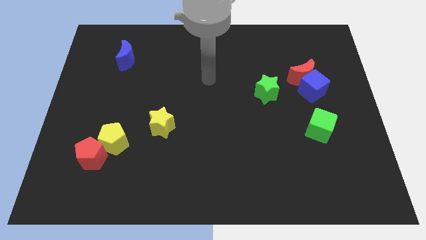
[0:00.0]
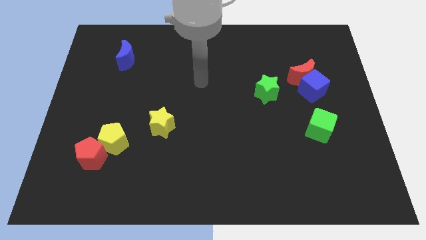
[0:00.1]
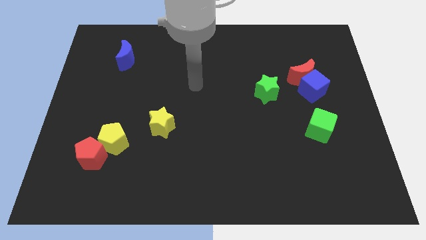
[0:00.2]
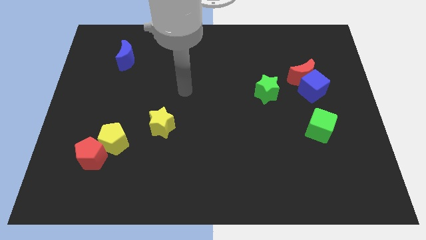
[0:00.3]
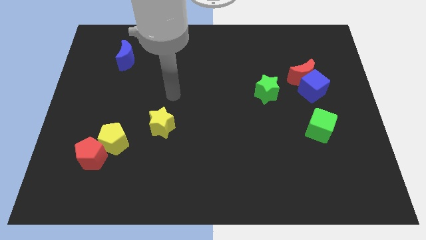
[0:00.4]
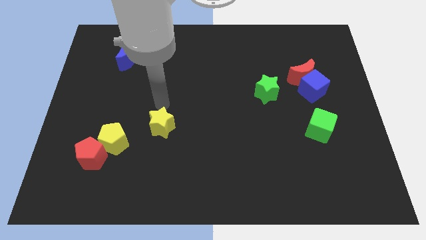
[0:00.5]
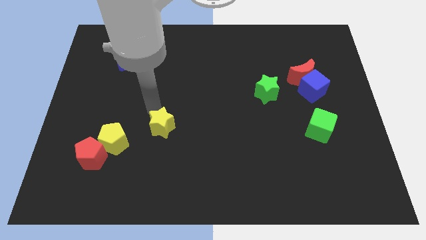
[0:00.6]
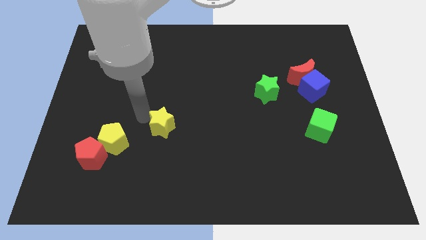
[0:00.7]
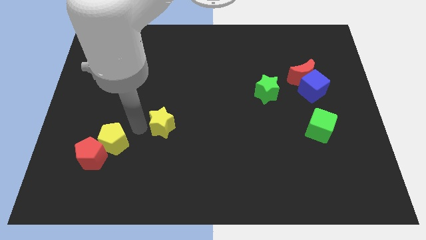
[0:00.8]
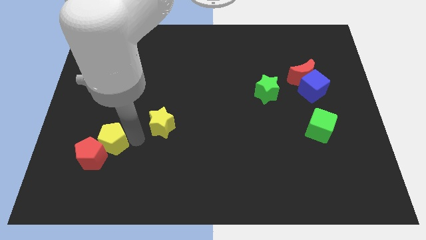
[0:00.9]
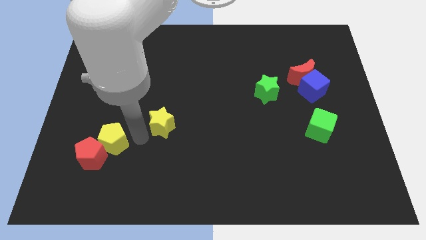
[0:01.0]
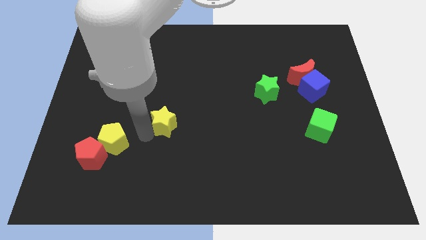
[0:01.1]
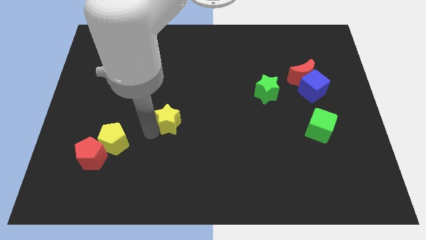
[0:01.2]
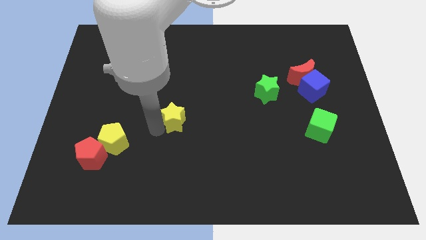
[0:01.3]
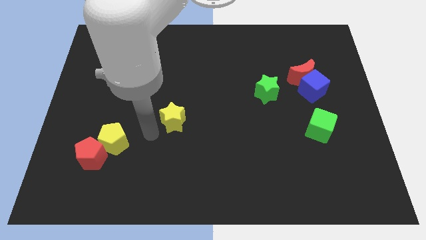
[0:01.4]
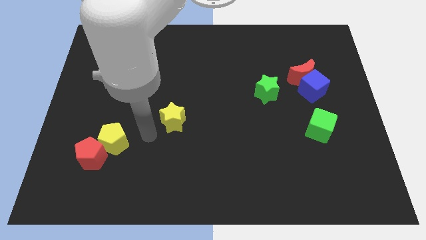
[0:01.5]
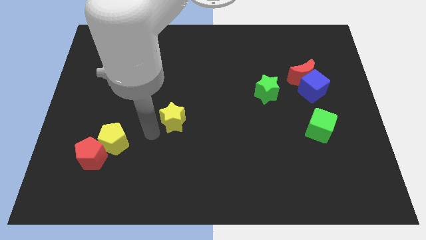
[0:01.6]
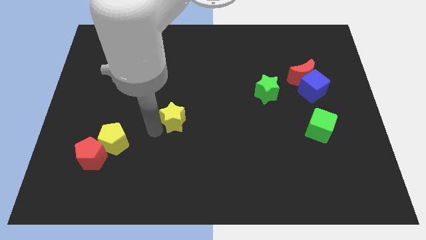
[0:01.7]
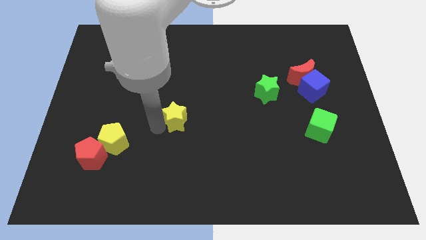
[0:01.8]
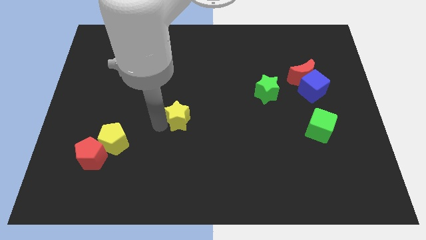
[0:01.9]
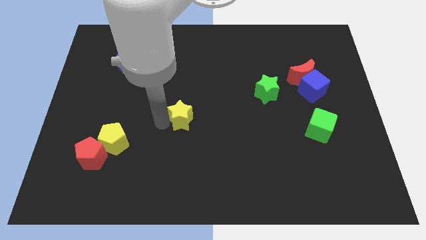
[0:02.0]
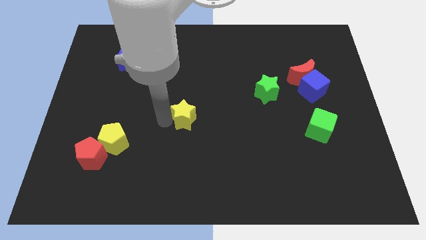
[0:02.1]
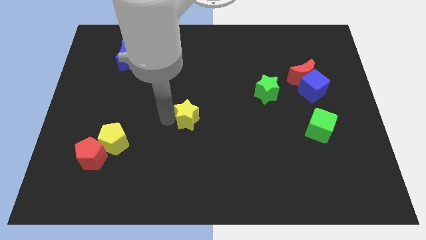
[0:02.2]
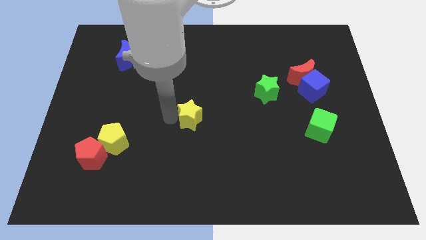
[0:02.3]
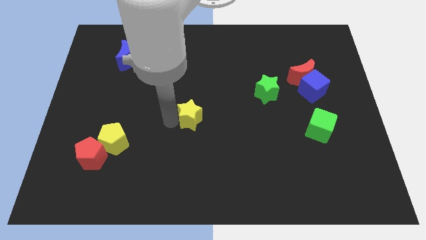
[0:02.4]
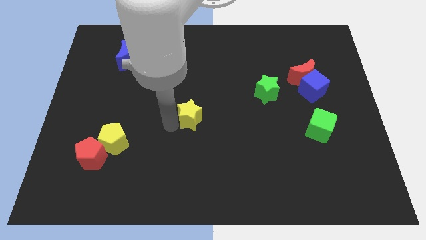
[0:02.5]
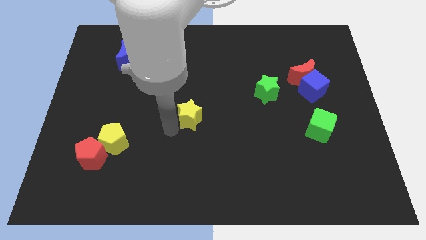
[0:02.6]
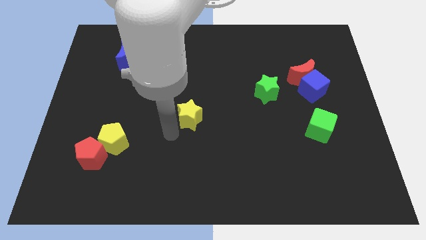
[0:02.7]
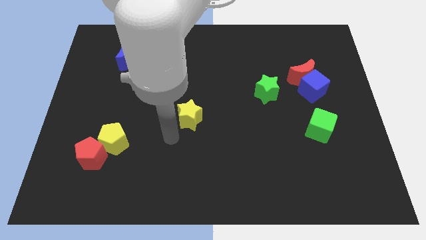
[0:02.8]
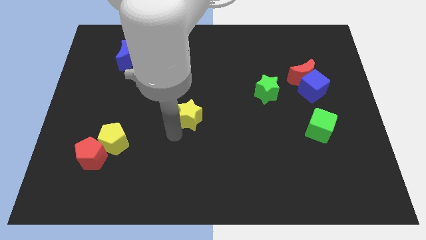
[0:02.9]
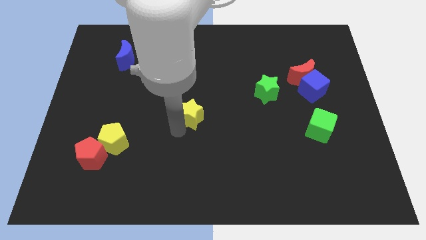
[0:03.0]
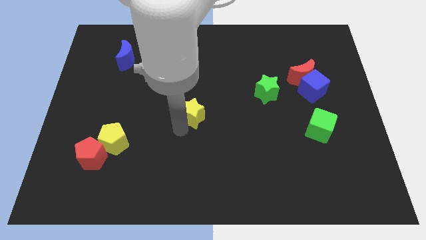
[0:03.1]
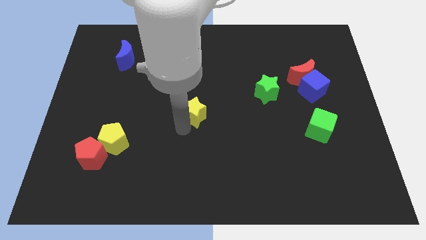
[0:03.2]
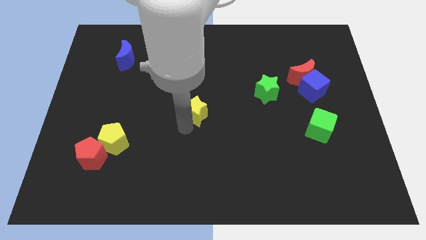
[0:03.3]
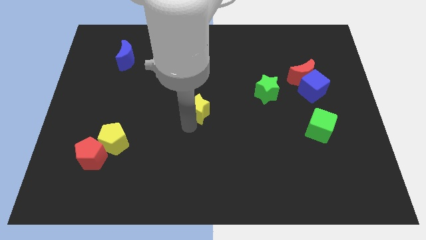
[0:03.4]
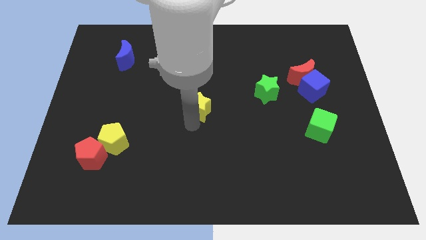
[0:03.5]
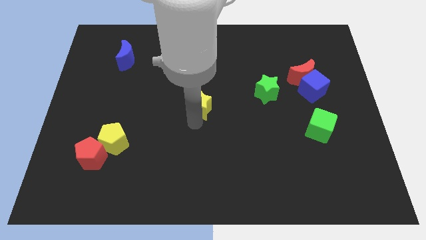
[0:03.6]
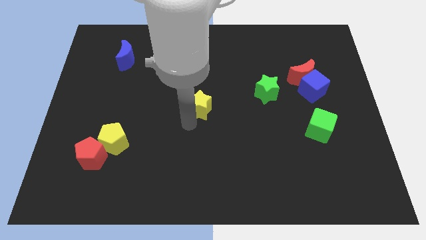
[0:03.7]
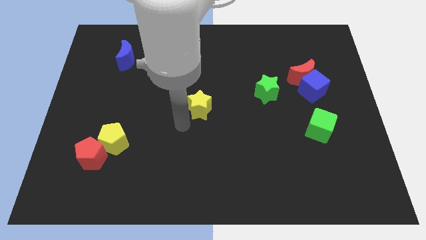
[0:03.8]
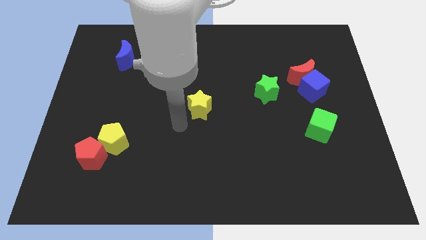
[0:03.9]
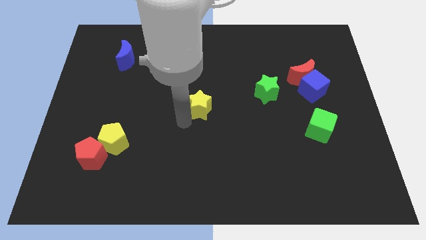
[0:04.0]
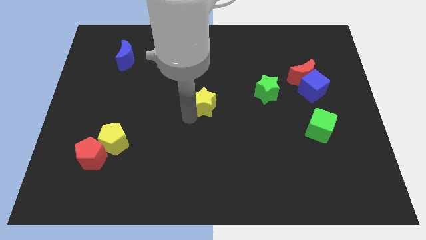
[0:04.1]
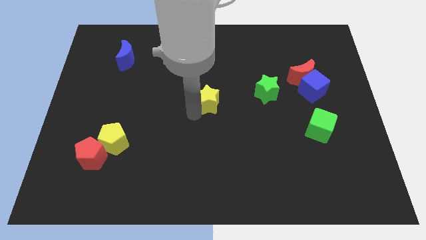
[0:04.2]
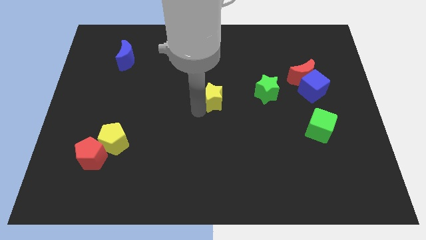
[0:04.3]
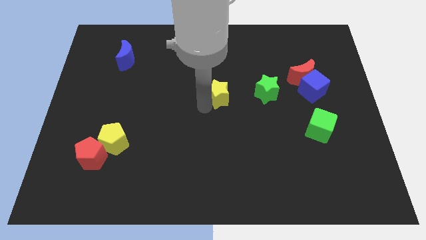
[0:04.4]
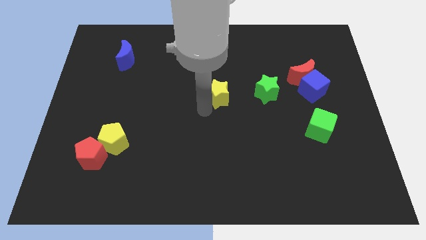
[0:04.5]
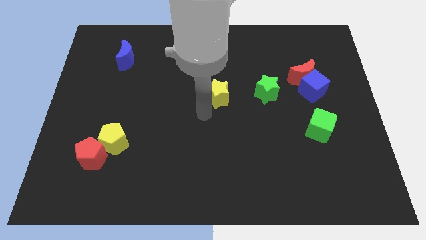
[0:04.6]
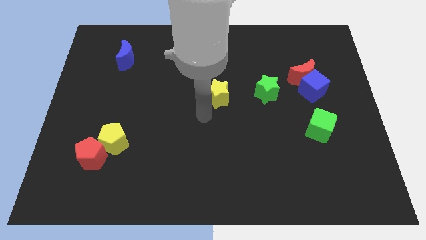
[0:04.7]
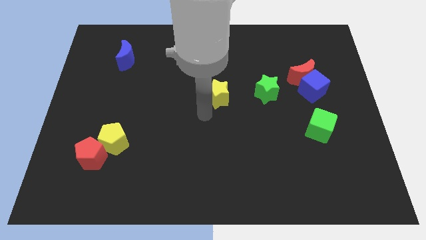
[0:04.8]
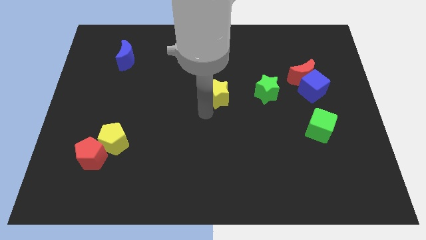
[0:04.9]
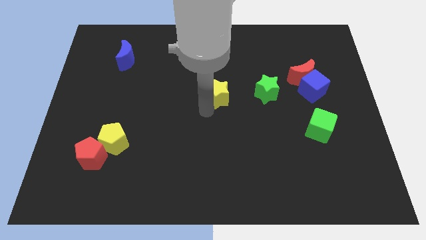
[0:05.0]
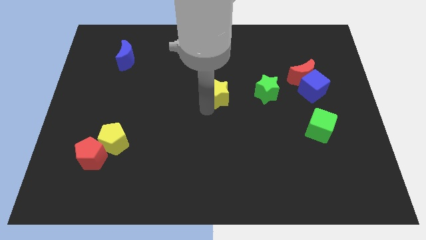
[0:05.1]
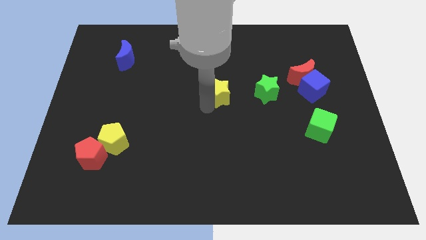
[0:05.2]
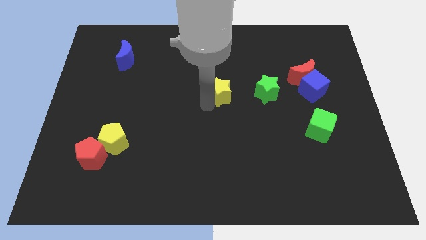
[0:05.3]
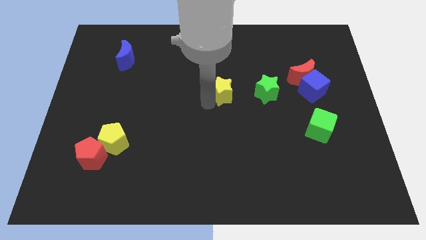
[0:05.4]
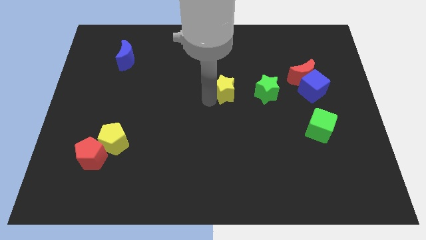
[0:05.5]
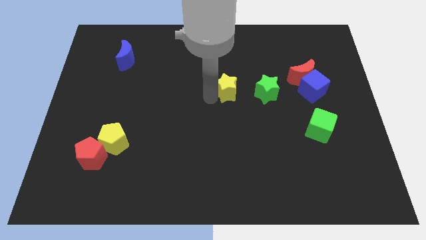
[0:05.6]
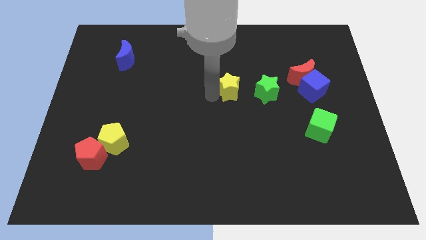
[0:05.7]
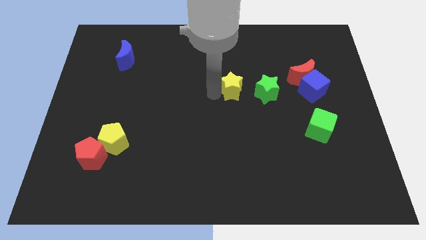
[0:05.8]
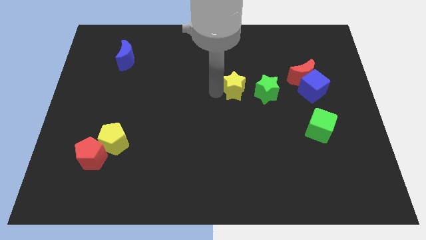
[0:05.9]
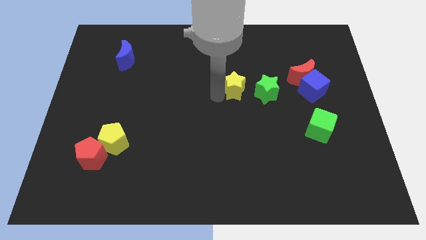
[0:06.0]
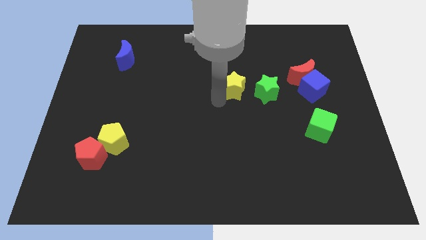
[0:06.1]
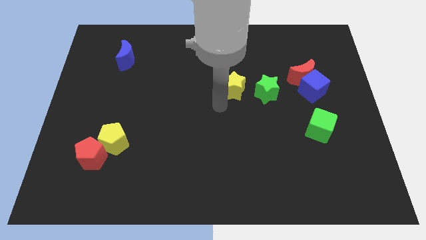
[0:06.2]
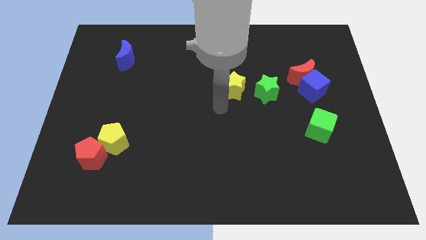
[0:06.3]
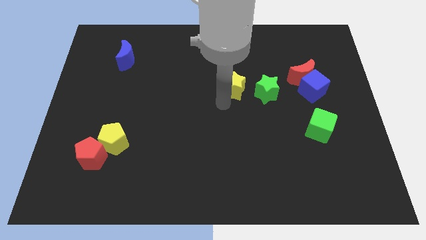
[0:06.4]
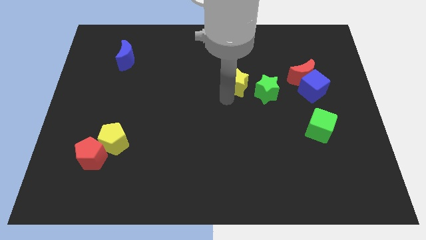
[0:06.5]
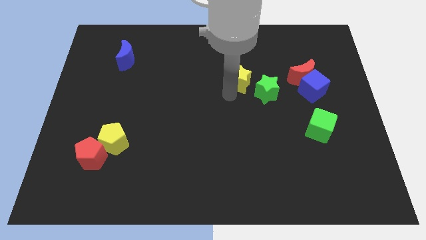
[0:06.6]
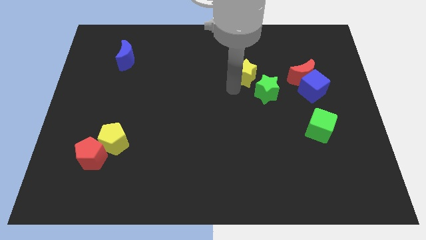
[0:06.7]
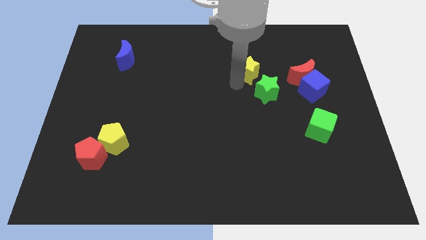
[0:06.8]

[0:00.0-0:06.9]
push the yellow star to the top of the green star
